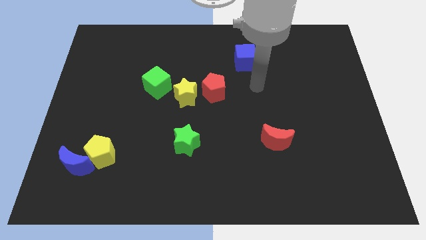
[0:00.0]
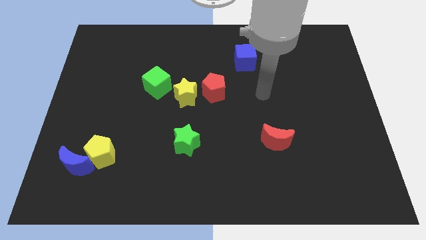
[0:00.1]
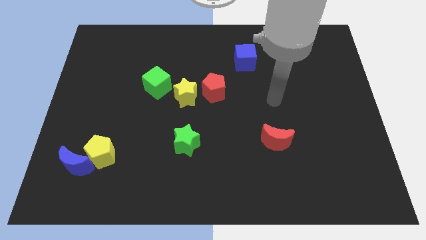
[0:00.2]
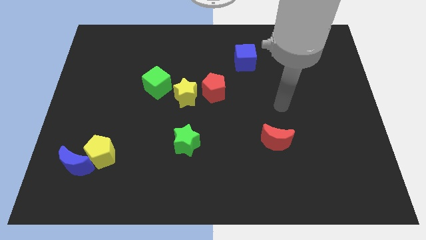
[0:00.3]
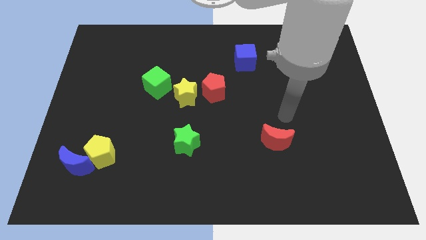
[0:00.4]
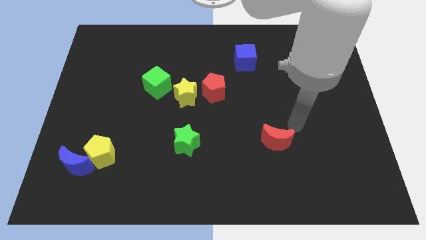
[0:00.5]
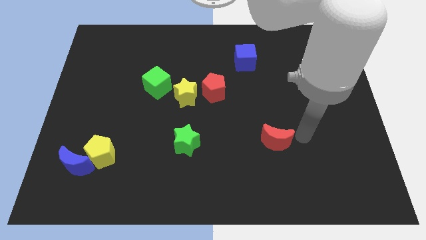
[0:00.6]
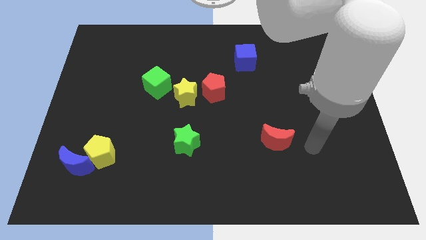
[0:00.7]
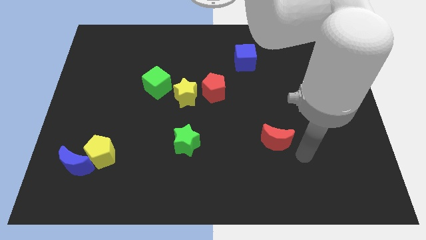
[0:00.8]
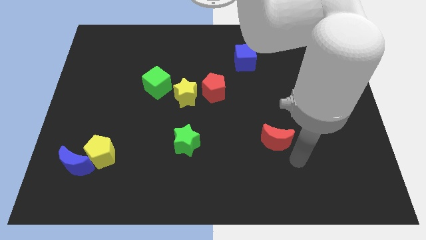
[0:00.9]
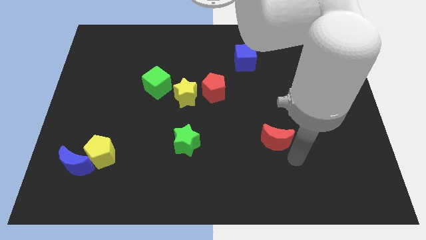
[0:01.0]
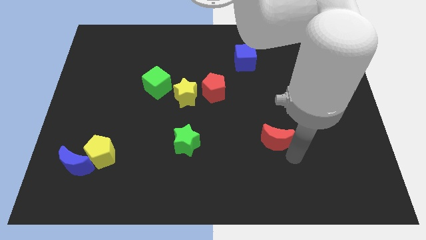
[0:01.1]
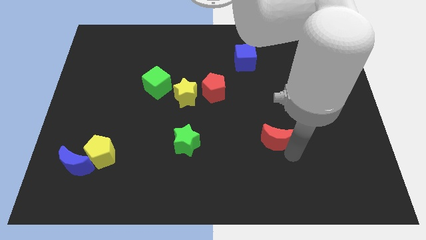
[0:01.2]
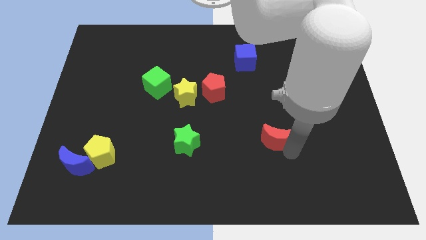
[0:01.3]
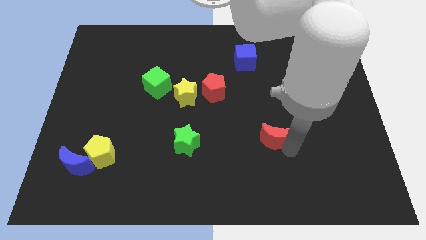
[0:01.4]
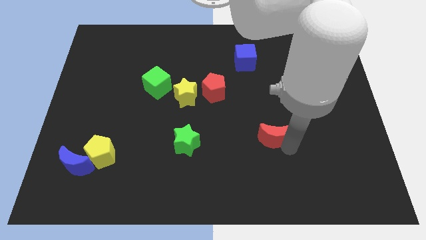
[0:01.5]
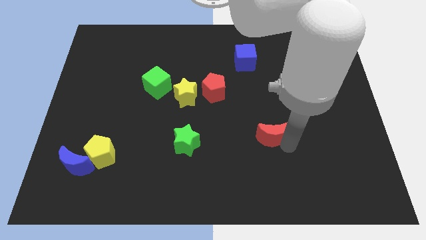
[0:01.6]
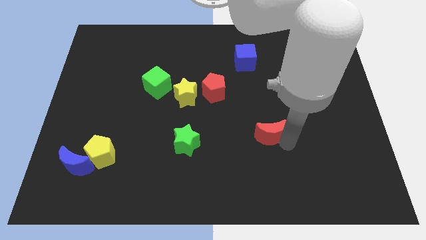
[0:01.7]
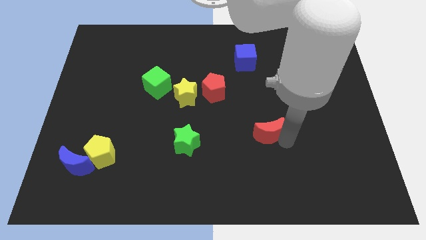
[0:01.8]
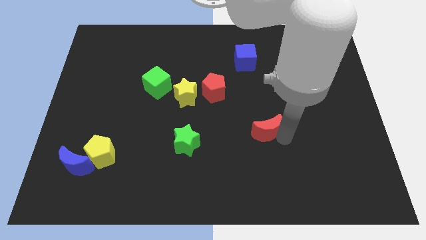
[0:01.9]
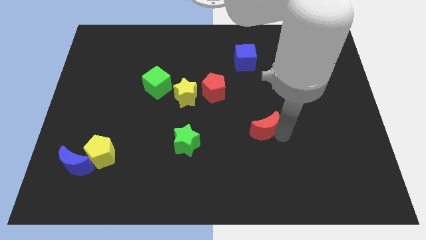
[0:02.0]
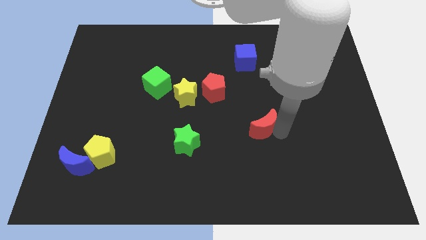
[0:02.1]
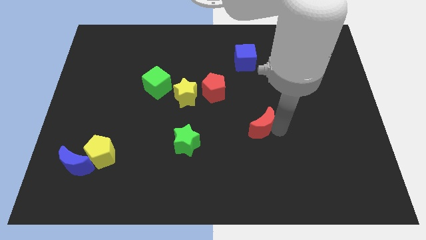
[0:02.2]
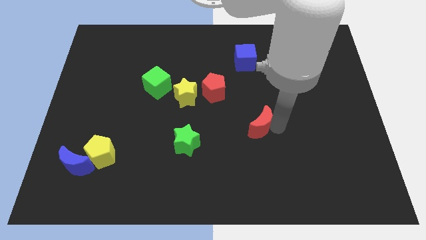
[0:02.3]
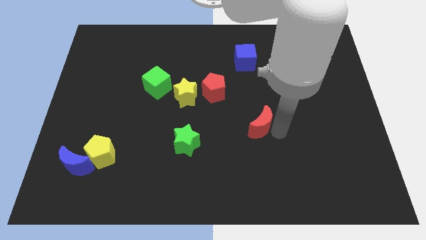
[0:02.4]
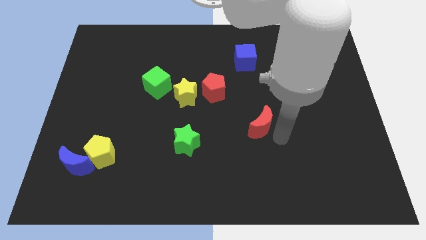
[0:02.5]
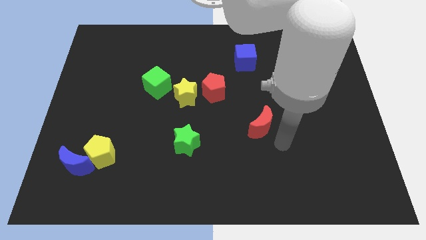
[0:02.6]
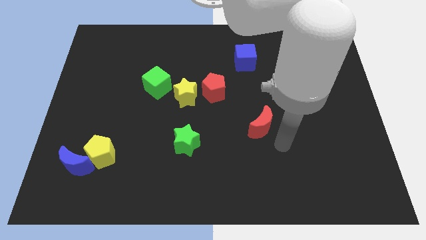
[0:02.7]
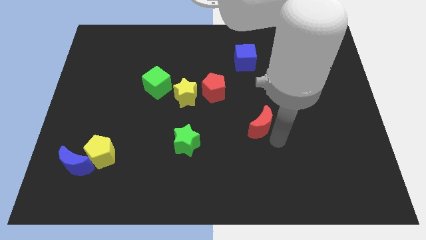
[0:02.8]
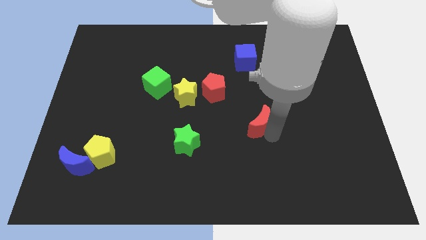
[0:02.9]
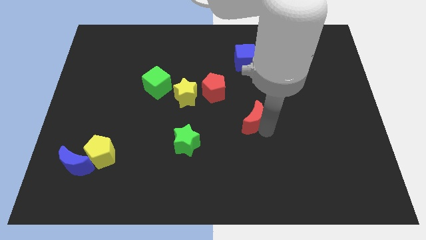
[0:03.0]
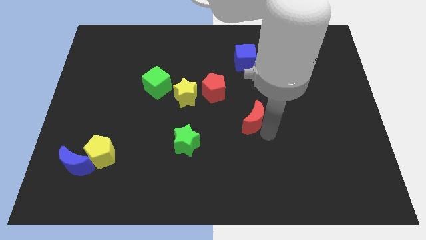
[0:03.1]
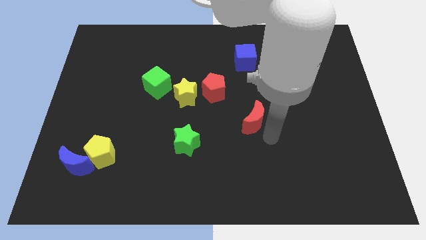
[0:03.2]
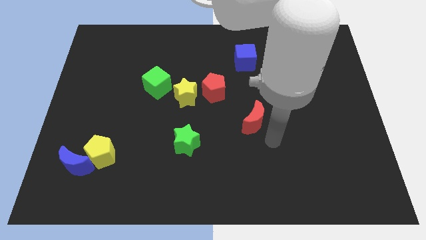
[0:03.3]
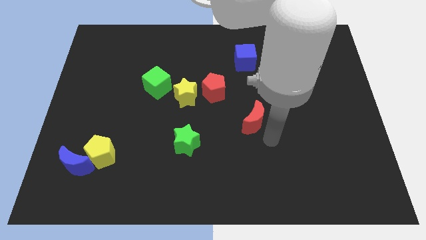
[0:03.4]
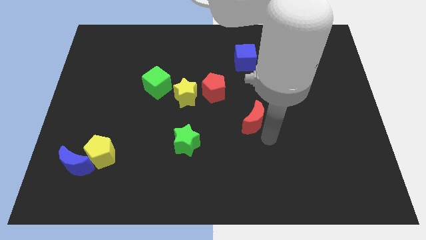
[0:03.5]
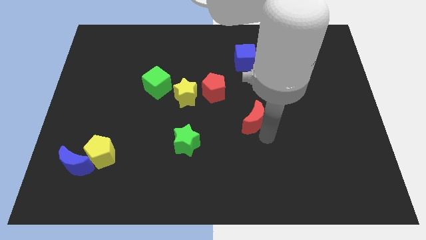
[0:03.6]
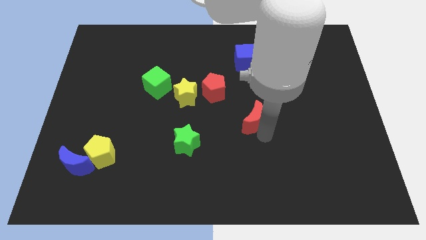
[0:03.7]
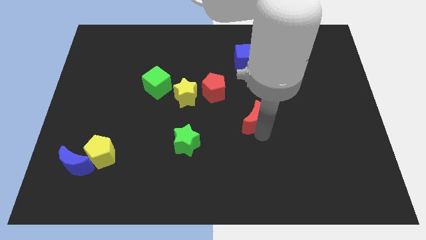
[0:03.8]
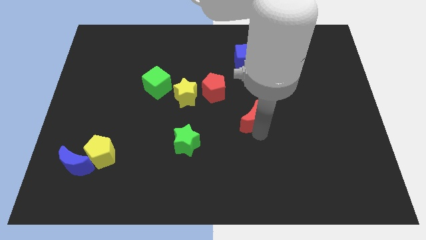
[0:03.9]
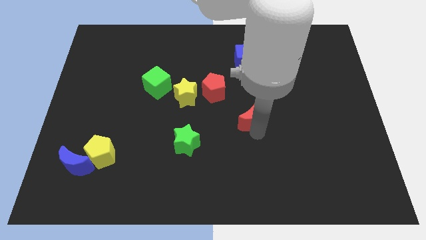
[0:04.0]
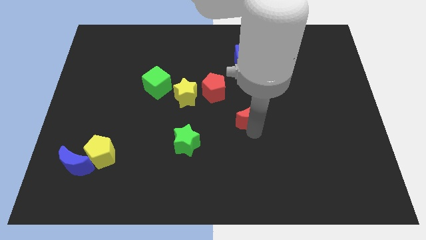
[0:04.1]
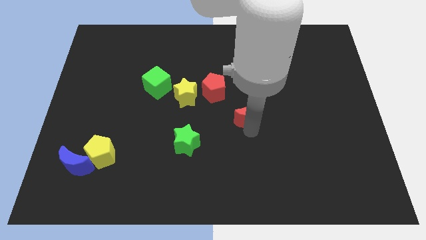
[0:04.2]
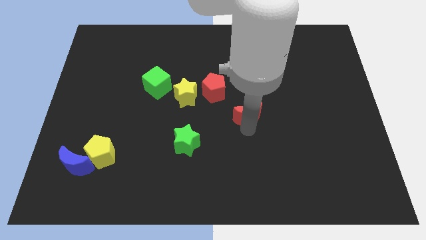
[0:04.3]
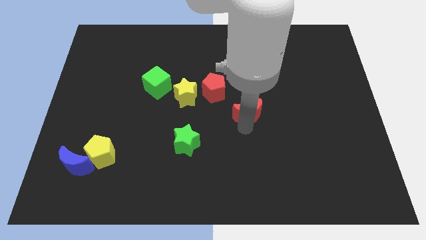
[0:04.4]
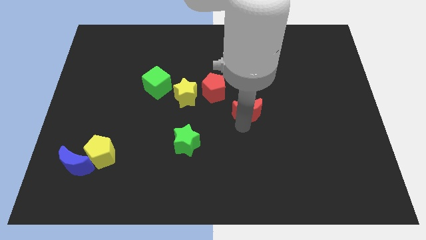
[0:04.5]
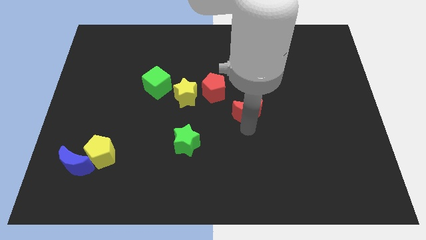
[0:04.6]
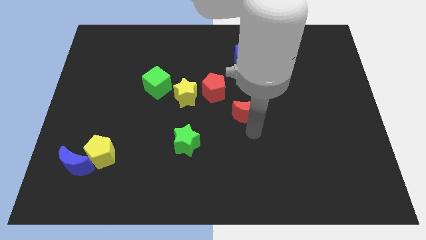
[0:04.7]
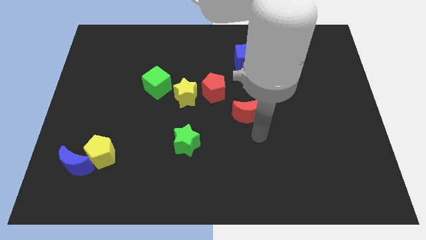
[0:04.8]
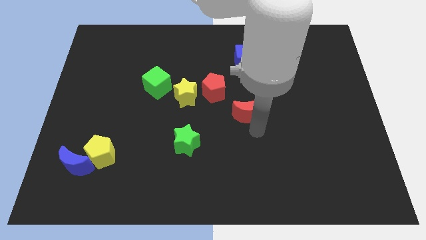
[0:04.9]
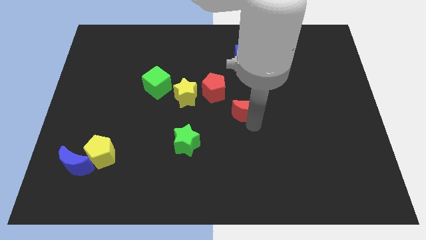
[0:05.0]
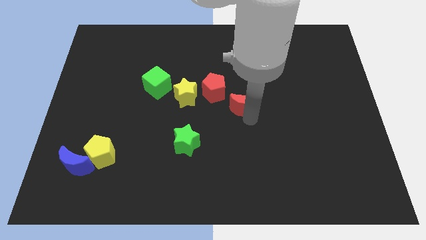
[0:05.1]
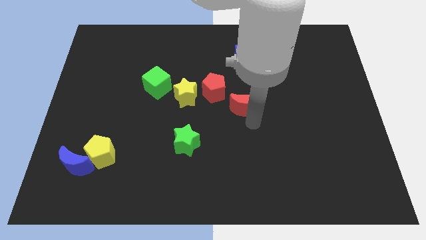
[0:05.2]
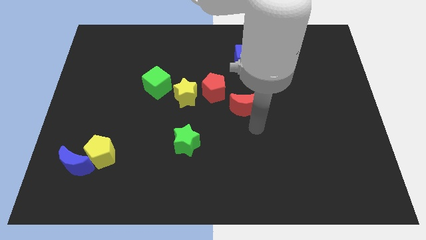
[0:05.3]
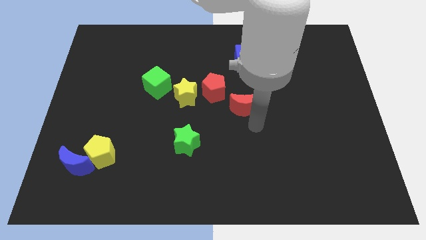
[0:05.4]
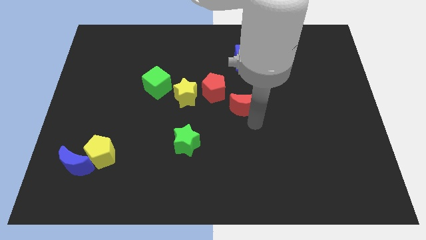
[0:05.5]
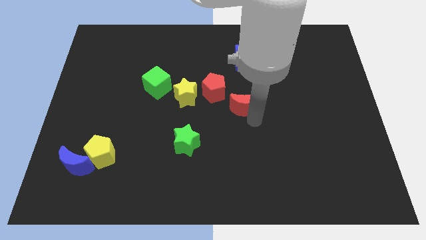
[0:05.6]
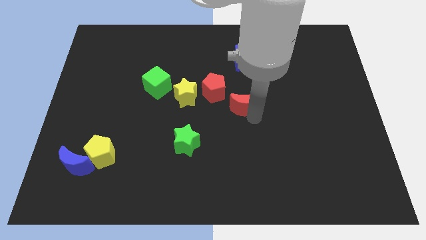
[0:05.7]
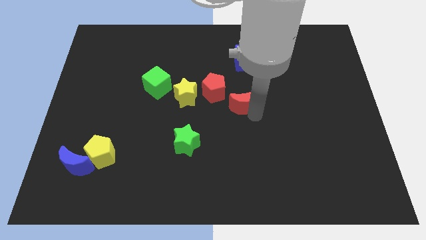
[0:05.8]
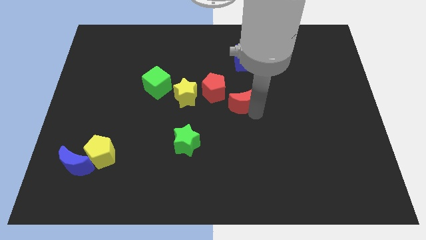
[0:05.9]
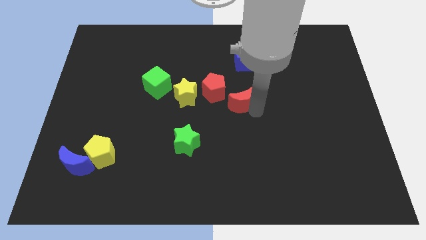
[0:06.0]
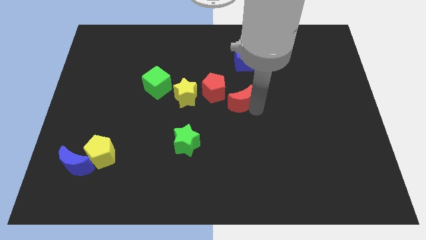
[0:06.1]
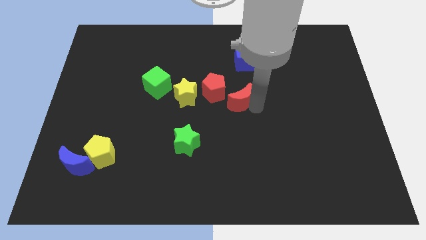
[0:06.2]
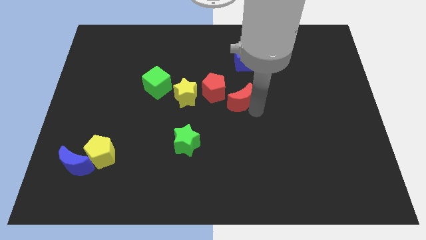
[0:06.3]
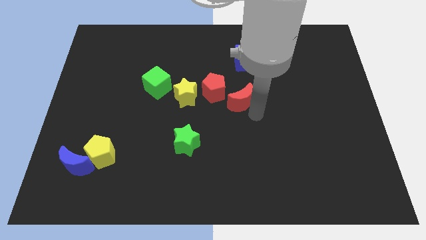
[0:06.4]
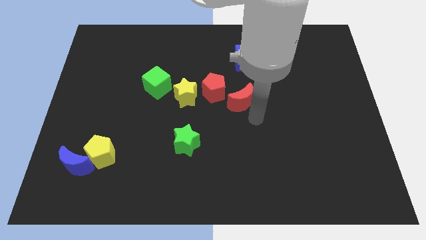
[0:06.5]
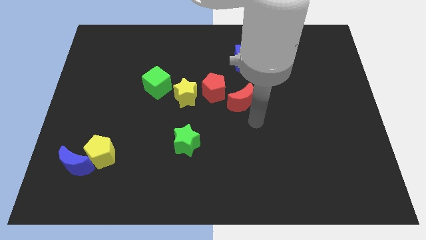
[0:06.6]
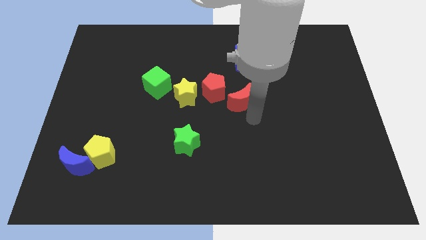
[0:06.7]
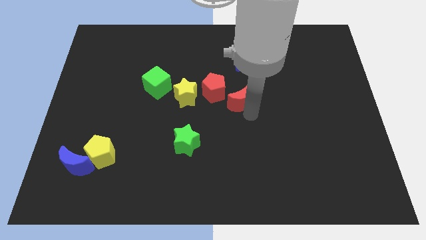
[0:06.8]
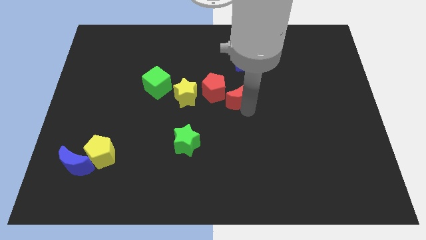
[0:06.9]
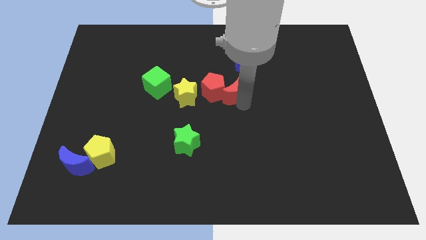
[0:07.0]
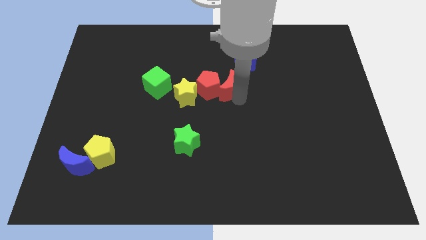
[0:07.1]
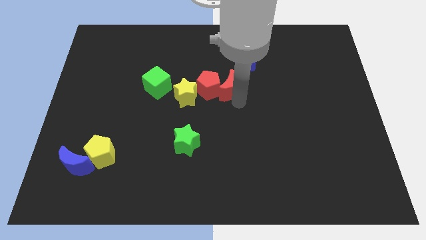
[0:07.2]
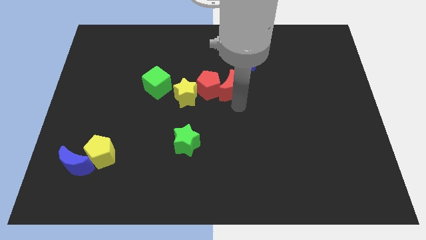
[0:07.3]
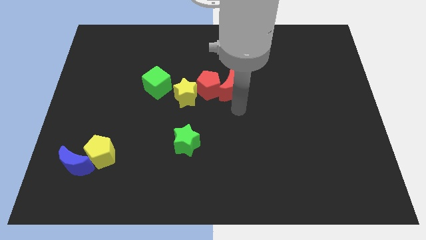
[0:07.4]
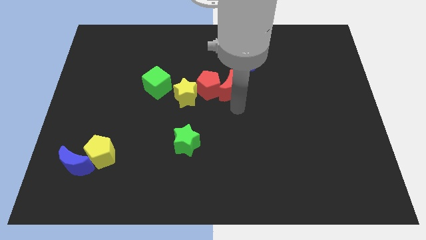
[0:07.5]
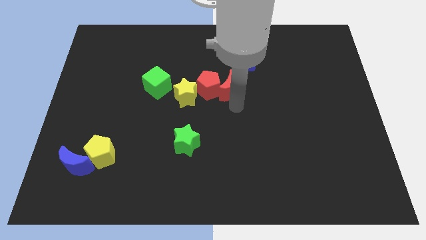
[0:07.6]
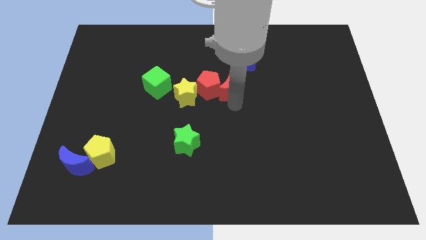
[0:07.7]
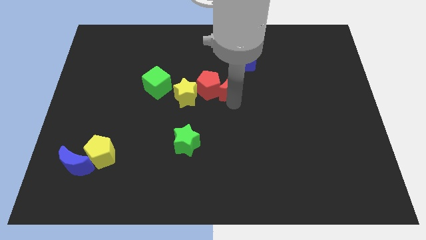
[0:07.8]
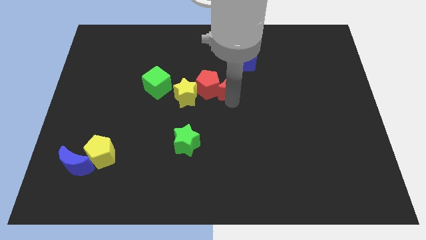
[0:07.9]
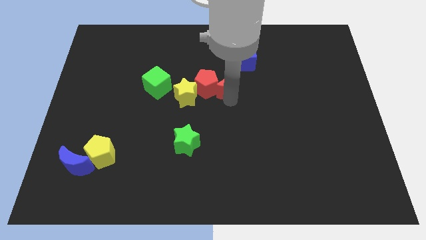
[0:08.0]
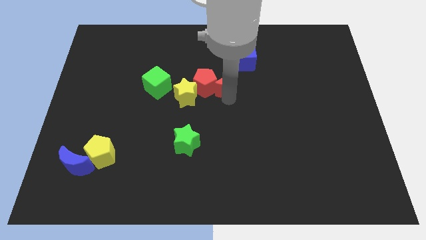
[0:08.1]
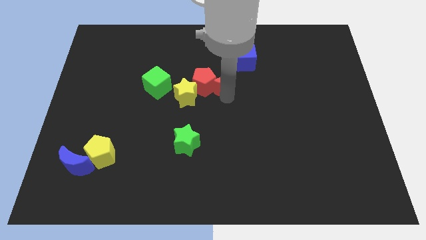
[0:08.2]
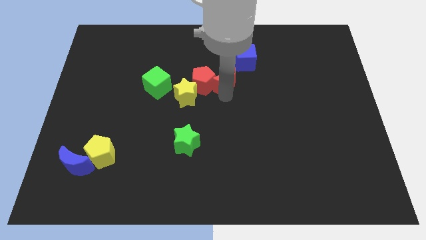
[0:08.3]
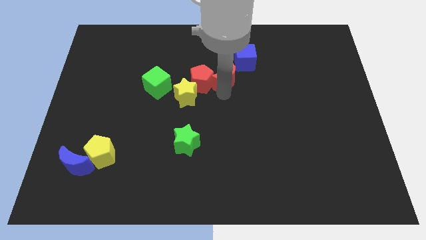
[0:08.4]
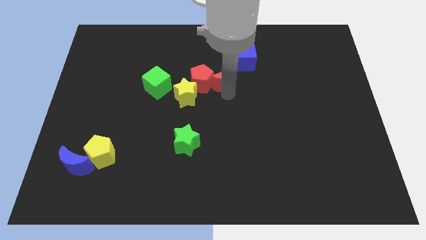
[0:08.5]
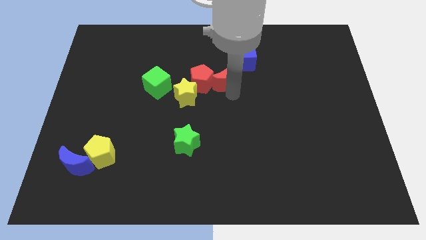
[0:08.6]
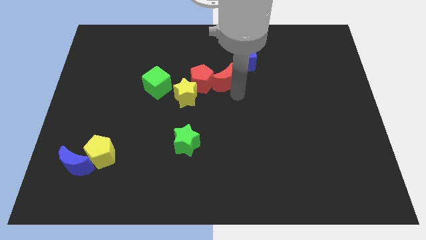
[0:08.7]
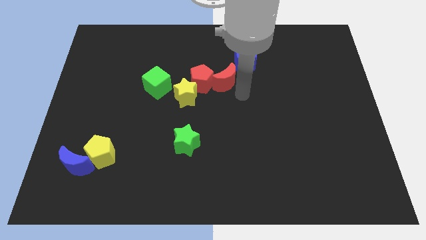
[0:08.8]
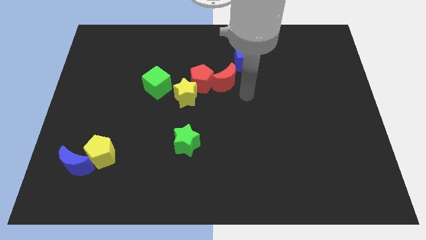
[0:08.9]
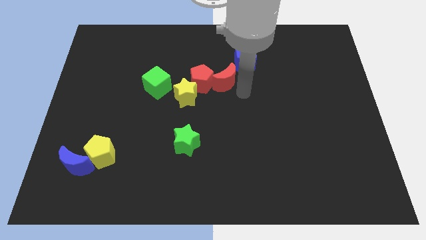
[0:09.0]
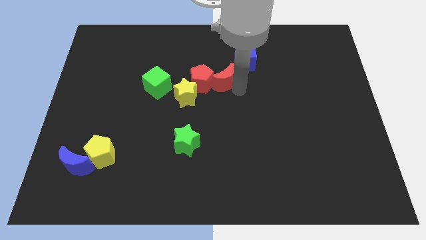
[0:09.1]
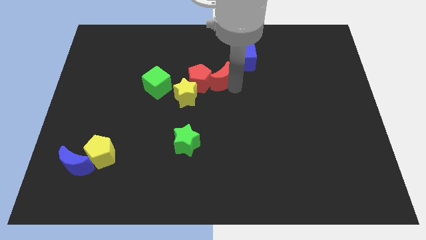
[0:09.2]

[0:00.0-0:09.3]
push the red moon up and then left
